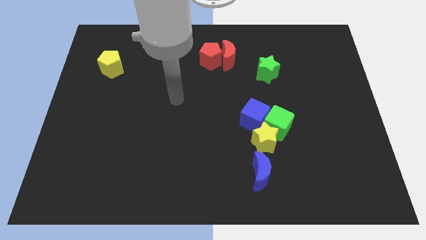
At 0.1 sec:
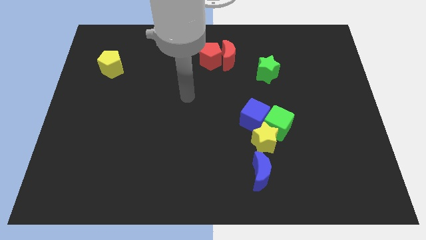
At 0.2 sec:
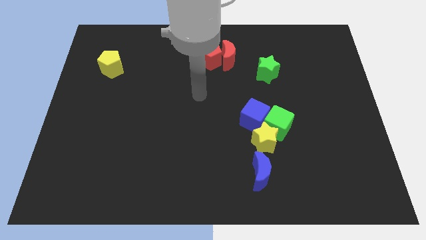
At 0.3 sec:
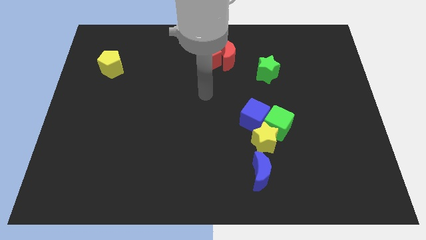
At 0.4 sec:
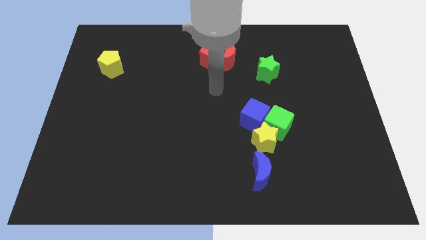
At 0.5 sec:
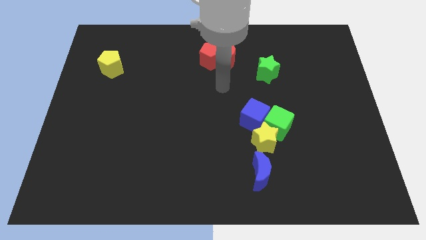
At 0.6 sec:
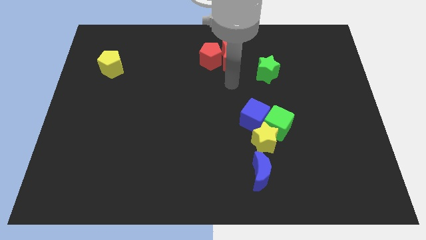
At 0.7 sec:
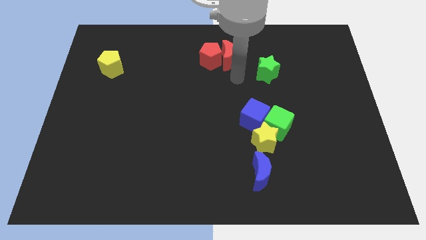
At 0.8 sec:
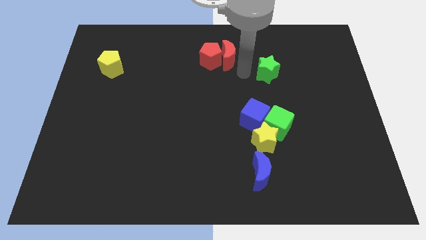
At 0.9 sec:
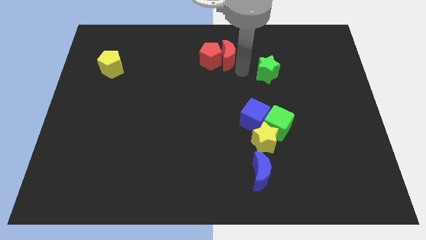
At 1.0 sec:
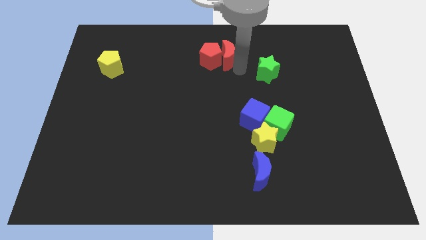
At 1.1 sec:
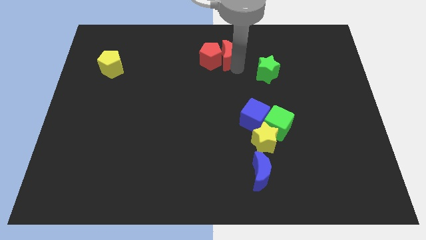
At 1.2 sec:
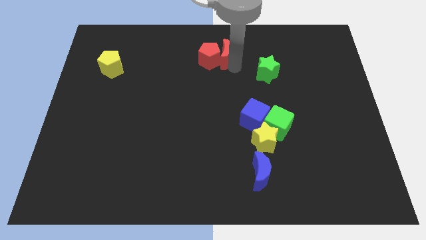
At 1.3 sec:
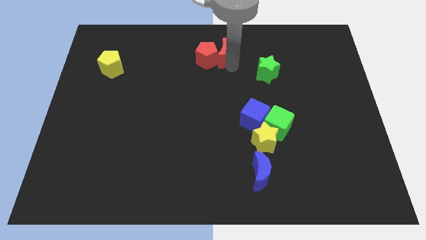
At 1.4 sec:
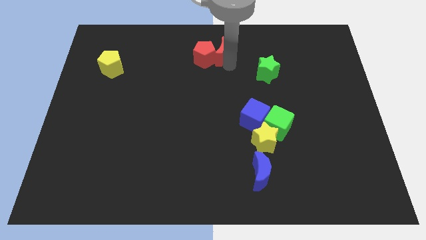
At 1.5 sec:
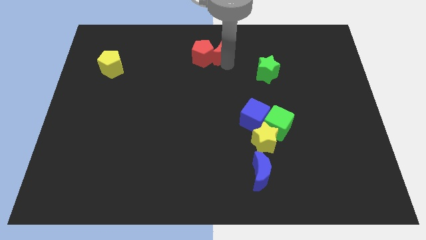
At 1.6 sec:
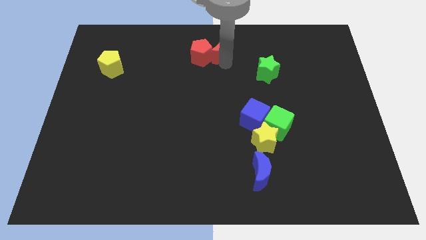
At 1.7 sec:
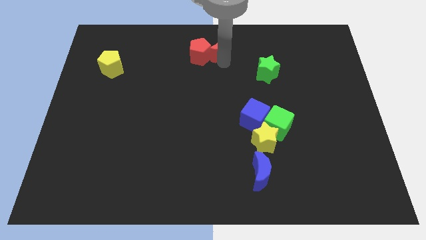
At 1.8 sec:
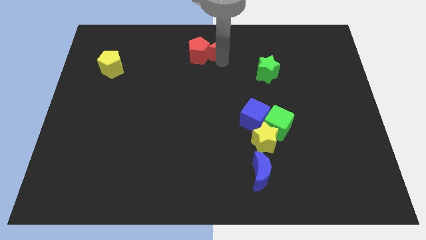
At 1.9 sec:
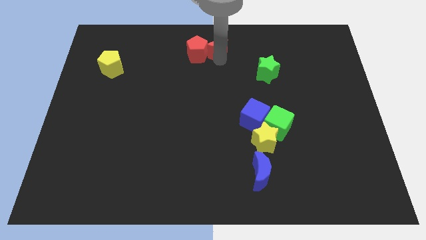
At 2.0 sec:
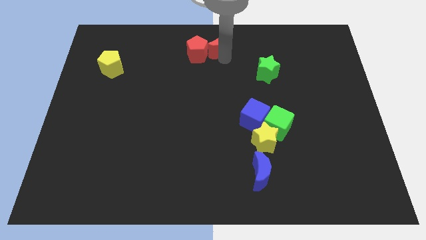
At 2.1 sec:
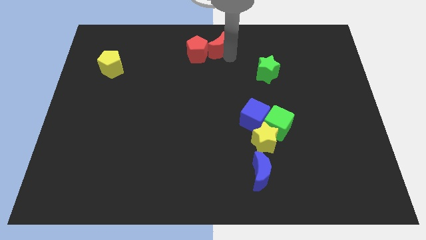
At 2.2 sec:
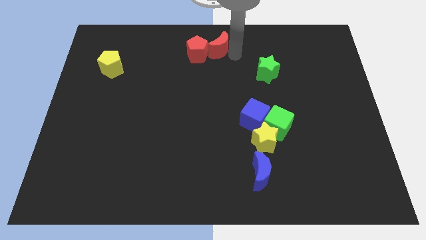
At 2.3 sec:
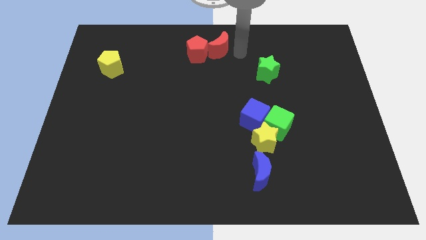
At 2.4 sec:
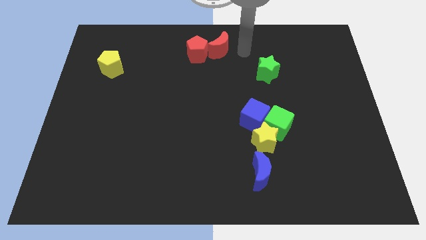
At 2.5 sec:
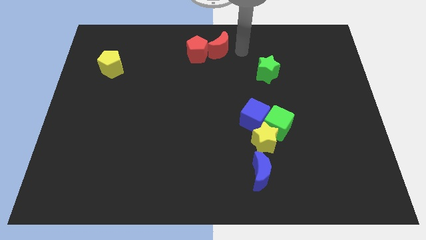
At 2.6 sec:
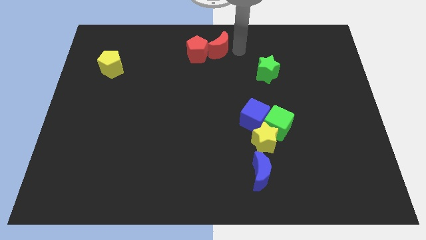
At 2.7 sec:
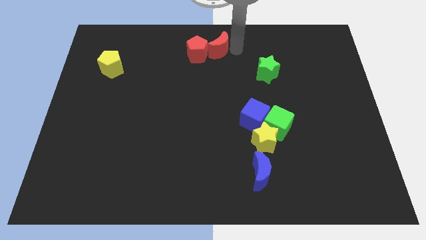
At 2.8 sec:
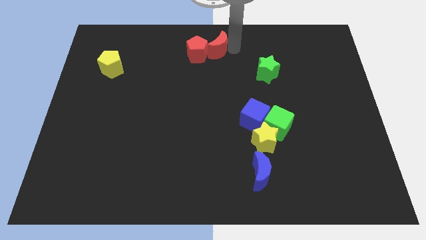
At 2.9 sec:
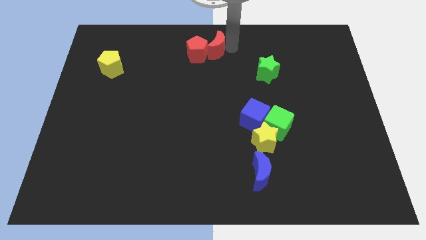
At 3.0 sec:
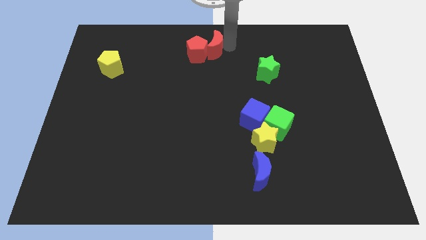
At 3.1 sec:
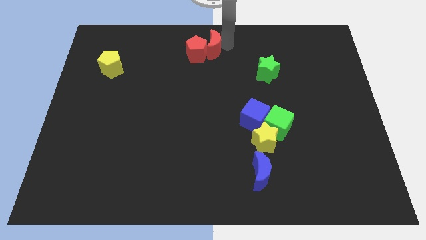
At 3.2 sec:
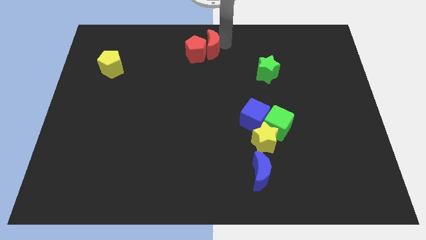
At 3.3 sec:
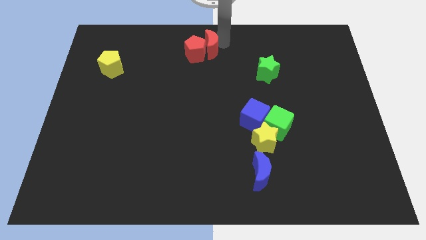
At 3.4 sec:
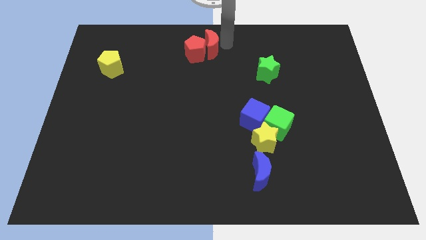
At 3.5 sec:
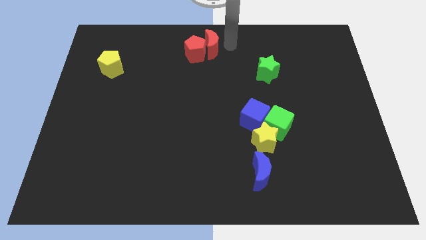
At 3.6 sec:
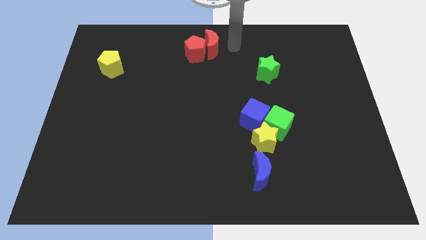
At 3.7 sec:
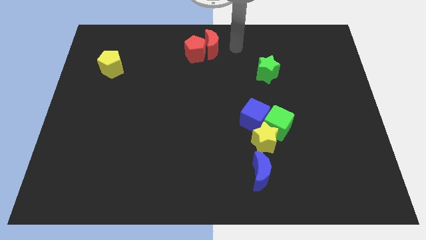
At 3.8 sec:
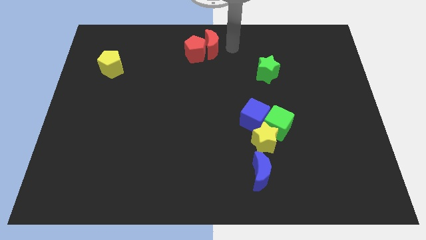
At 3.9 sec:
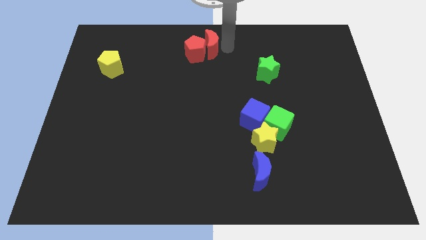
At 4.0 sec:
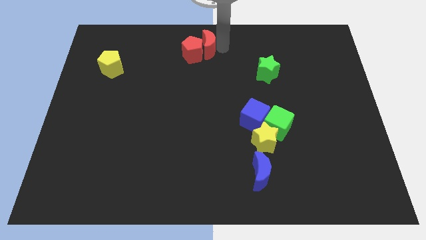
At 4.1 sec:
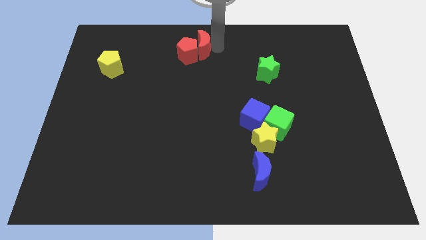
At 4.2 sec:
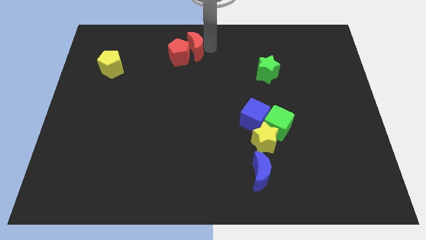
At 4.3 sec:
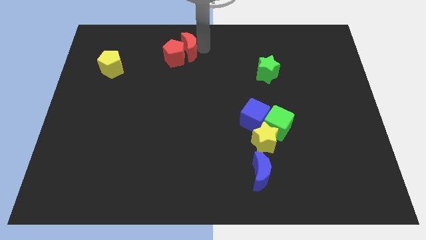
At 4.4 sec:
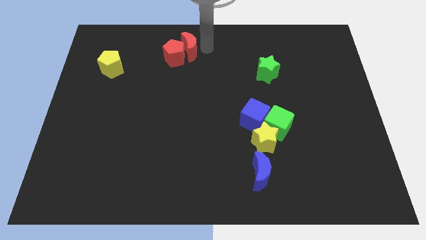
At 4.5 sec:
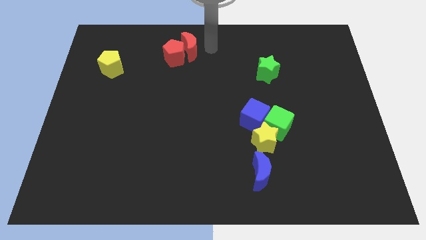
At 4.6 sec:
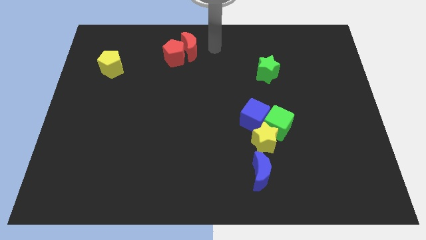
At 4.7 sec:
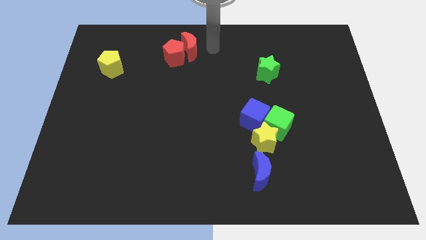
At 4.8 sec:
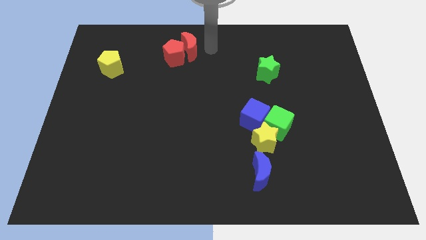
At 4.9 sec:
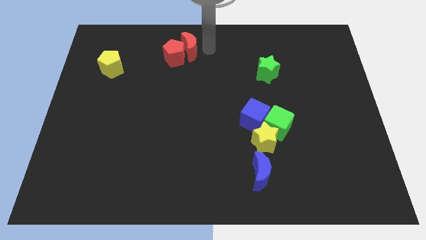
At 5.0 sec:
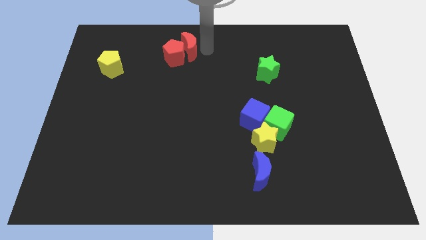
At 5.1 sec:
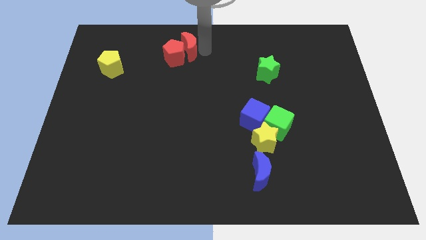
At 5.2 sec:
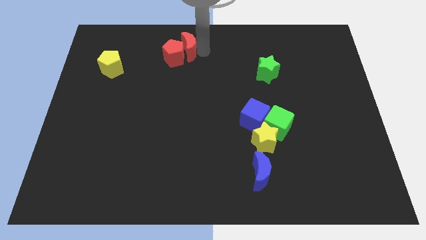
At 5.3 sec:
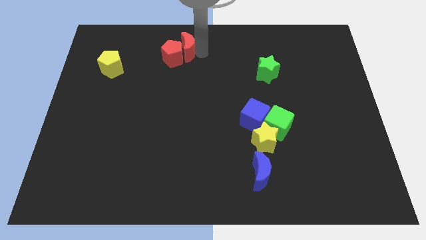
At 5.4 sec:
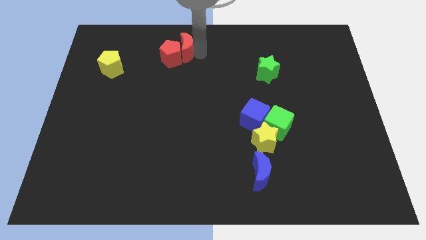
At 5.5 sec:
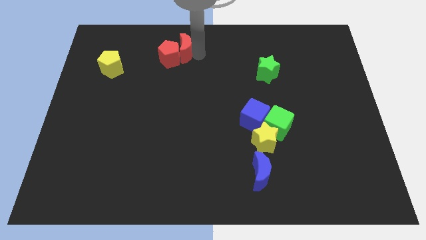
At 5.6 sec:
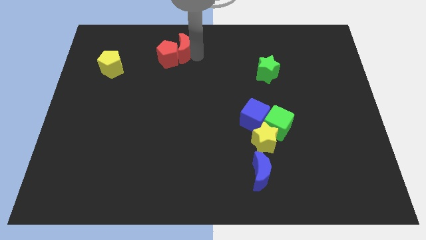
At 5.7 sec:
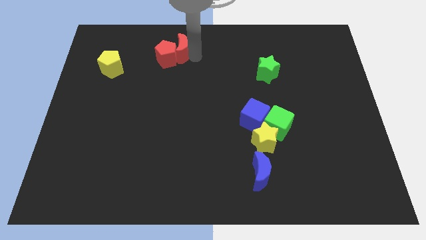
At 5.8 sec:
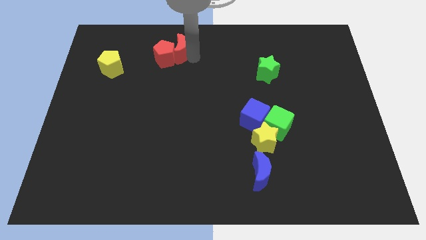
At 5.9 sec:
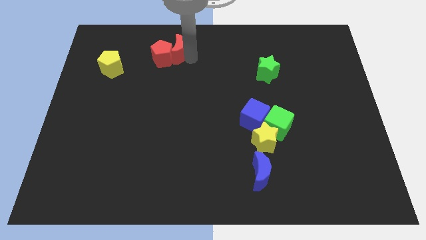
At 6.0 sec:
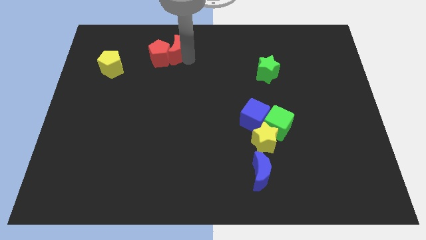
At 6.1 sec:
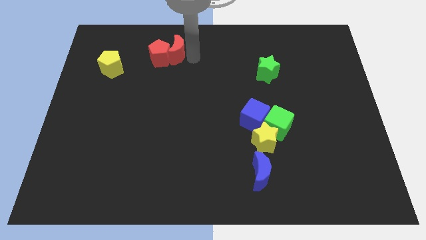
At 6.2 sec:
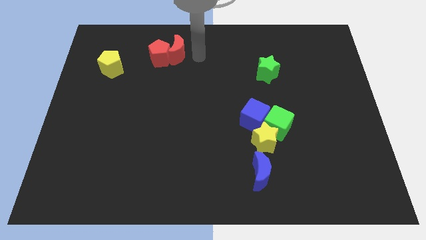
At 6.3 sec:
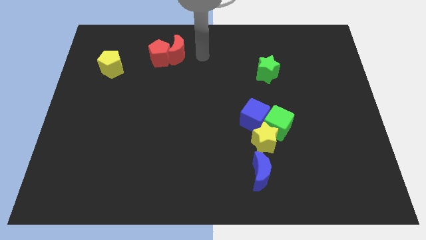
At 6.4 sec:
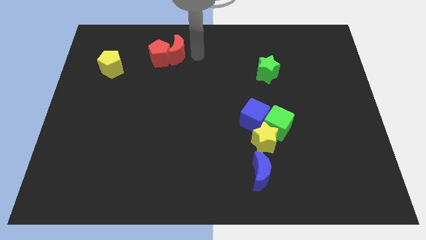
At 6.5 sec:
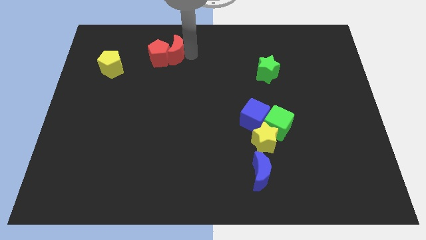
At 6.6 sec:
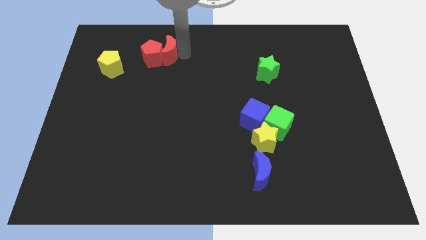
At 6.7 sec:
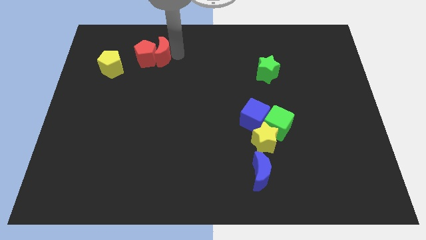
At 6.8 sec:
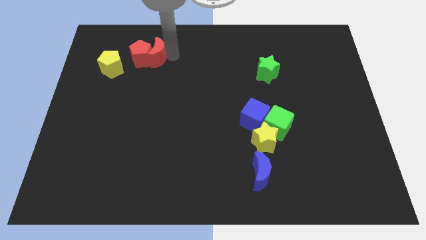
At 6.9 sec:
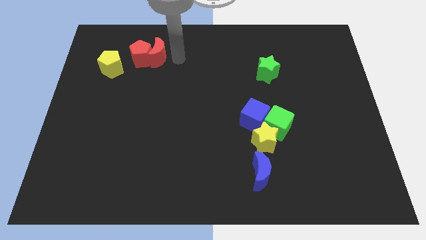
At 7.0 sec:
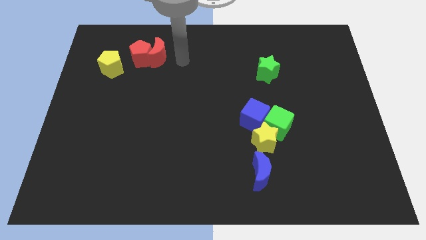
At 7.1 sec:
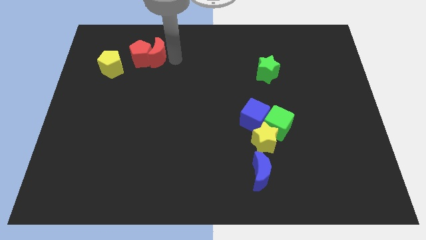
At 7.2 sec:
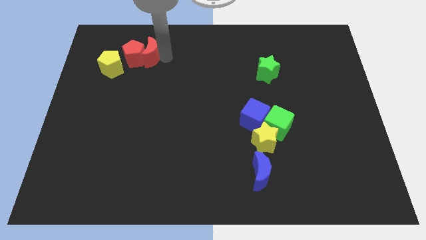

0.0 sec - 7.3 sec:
slide the red moon left

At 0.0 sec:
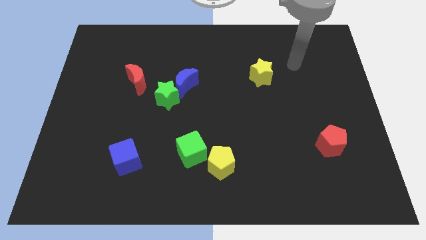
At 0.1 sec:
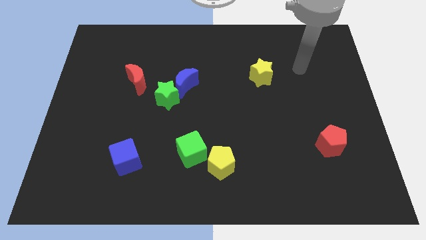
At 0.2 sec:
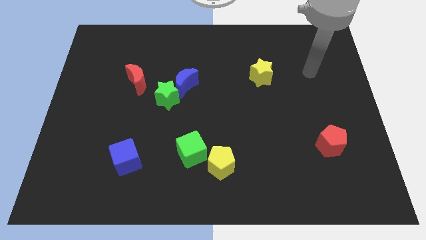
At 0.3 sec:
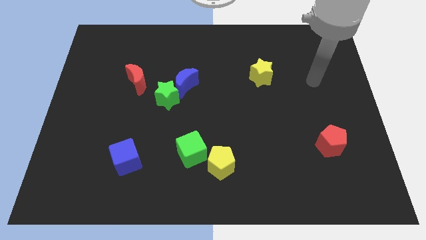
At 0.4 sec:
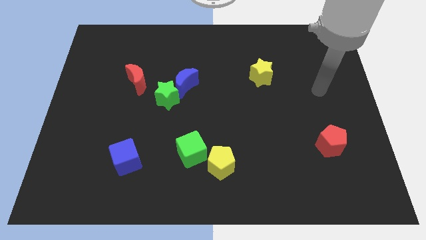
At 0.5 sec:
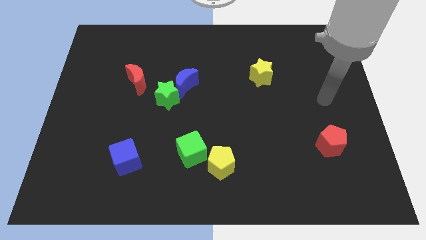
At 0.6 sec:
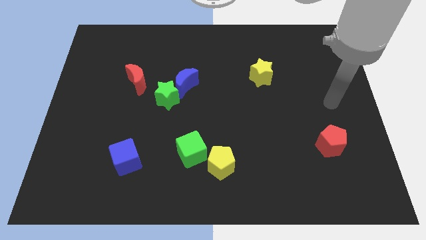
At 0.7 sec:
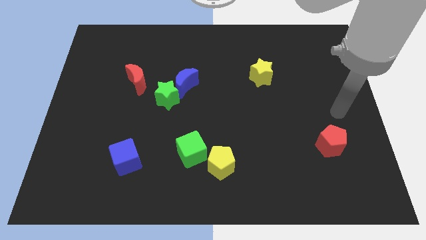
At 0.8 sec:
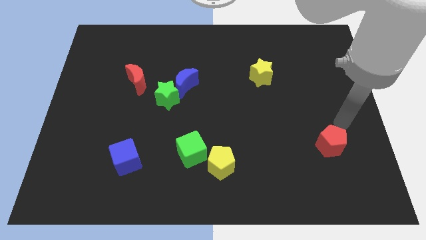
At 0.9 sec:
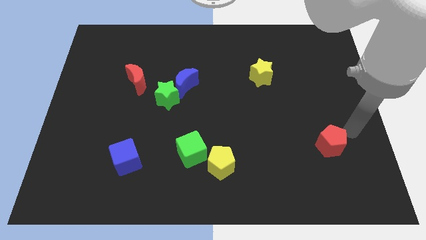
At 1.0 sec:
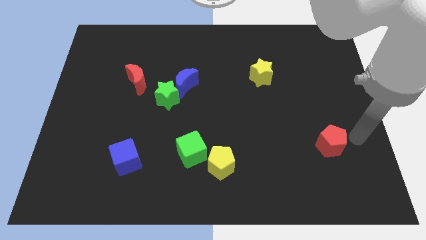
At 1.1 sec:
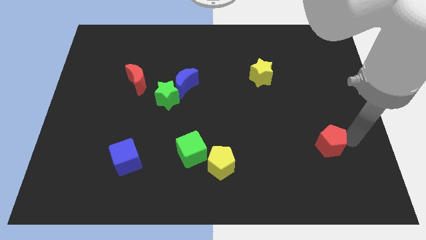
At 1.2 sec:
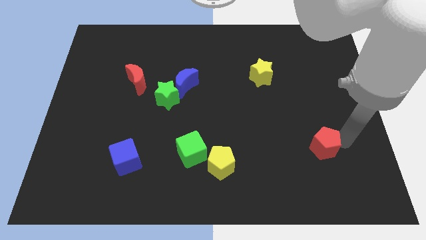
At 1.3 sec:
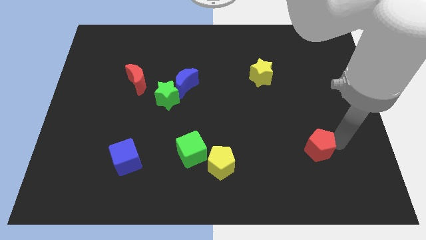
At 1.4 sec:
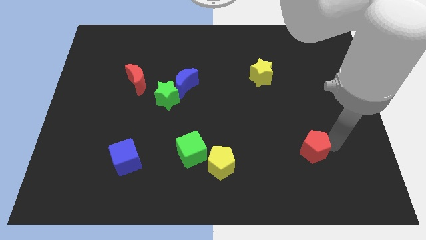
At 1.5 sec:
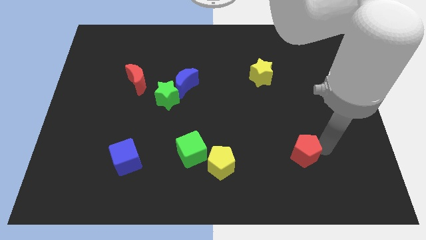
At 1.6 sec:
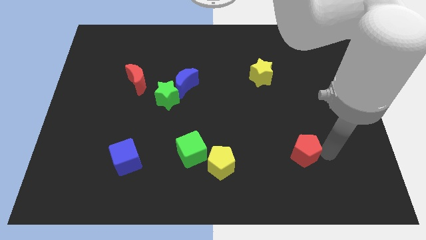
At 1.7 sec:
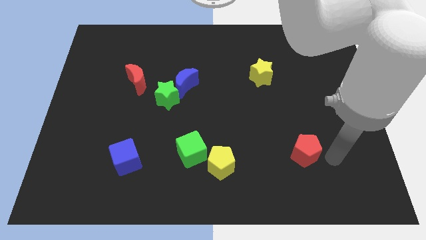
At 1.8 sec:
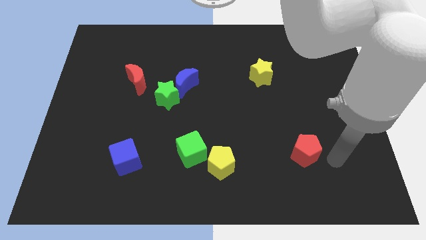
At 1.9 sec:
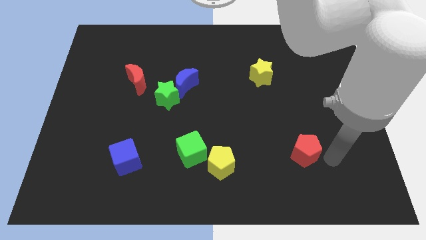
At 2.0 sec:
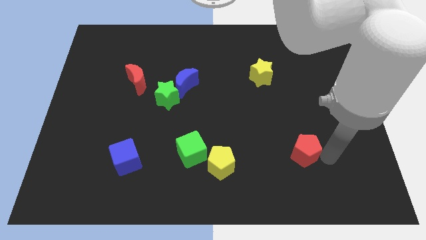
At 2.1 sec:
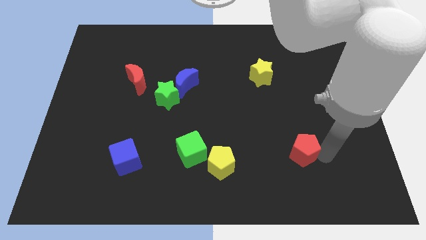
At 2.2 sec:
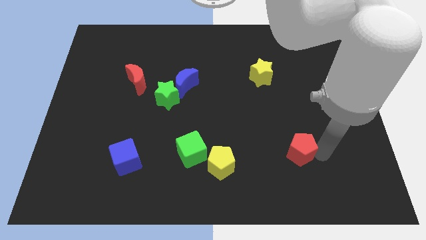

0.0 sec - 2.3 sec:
move the red pentagon a little left
